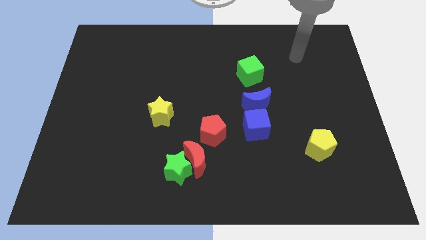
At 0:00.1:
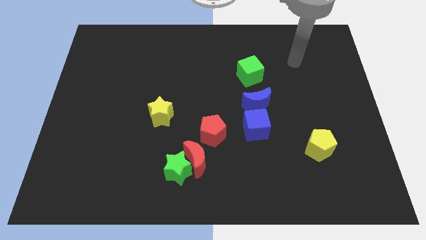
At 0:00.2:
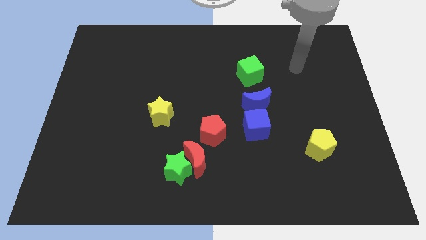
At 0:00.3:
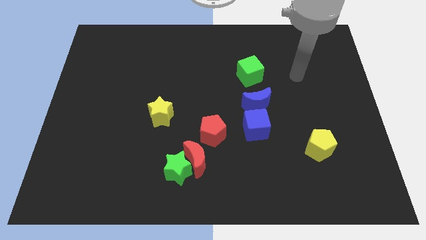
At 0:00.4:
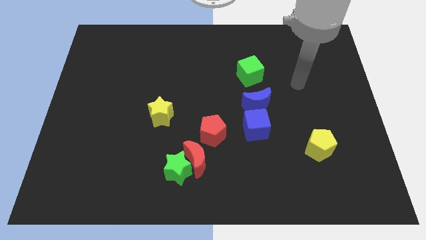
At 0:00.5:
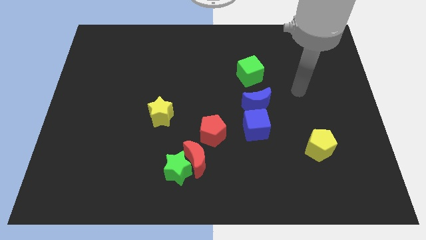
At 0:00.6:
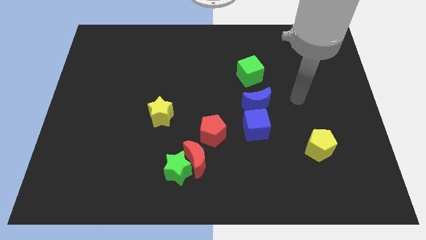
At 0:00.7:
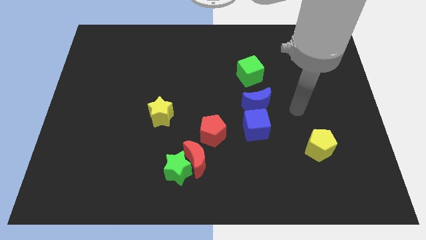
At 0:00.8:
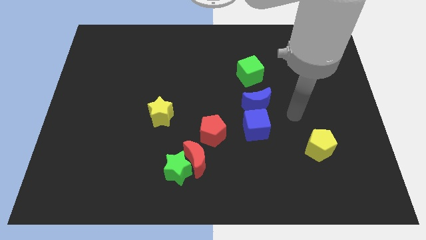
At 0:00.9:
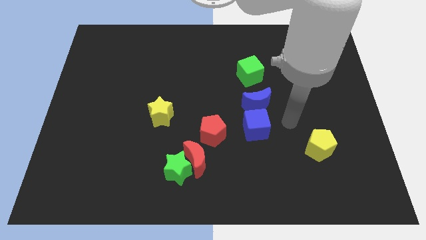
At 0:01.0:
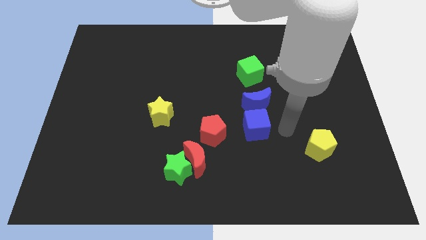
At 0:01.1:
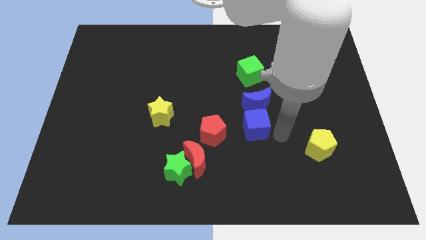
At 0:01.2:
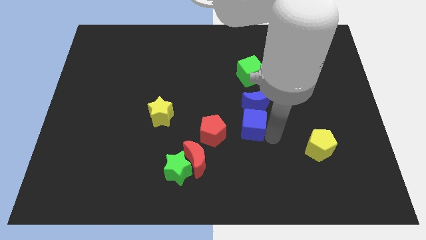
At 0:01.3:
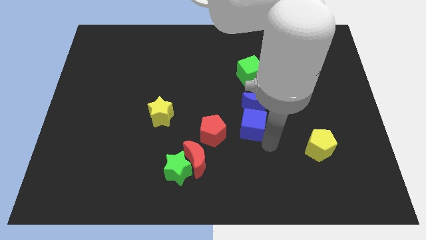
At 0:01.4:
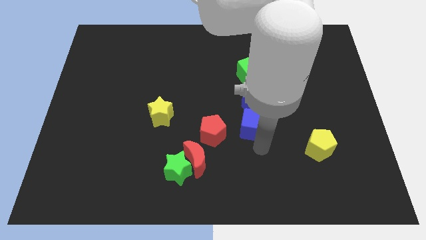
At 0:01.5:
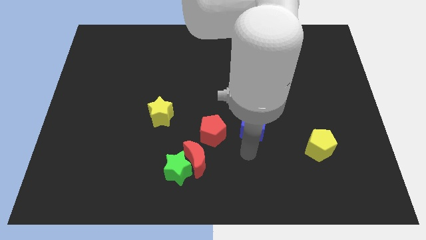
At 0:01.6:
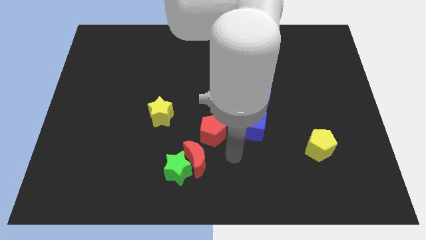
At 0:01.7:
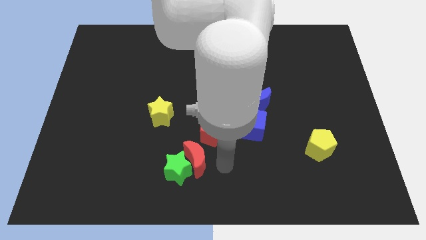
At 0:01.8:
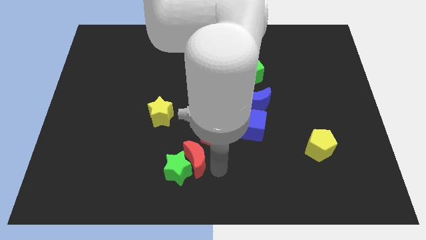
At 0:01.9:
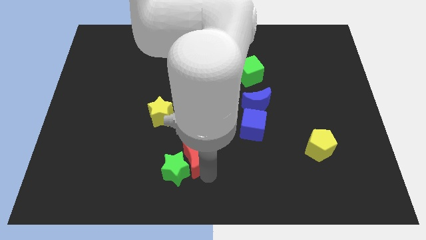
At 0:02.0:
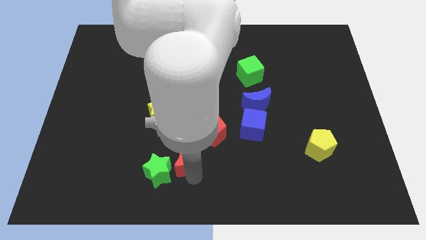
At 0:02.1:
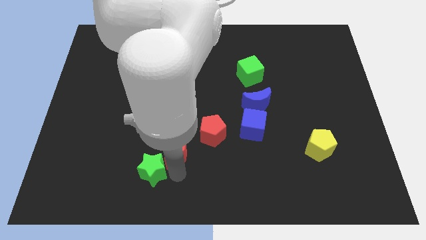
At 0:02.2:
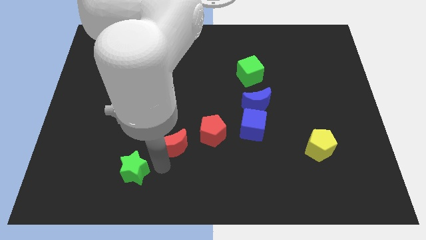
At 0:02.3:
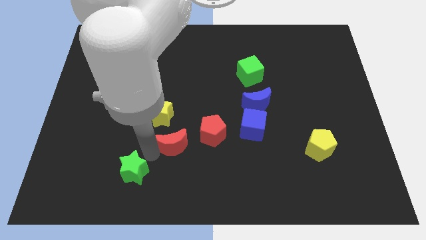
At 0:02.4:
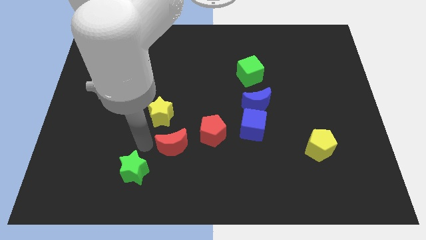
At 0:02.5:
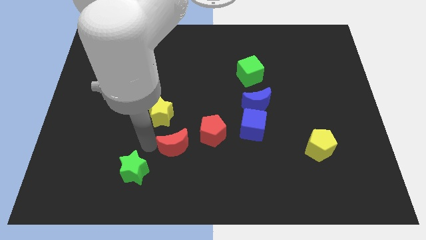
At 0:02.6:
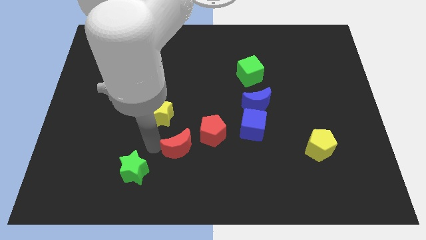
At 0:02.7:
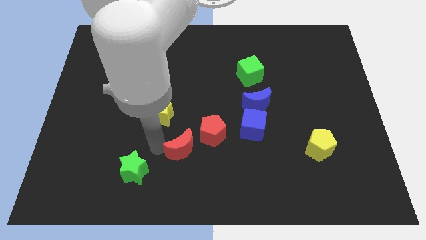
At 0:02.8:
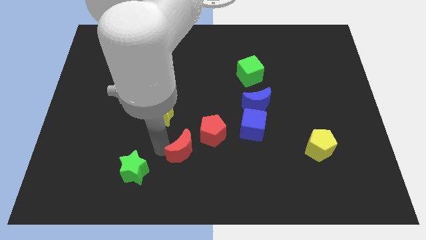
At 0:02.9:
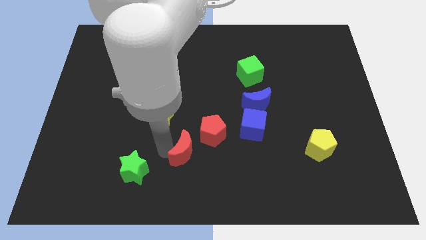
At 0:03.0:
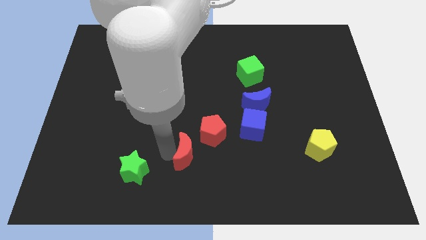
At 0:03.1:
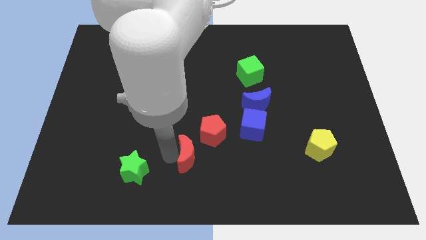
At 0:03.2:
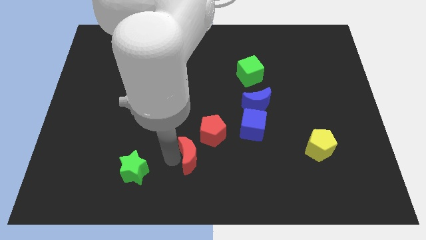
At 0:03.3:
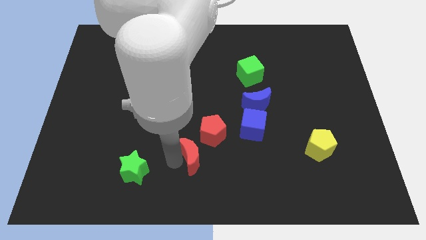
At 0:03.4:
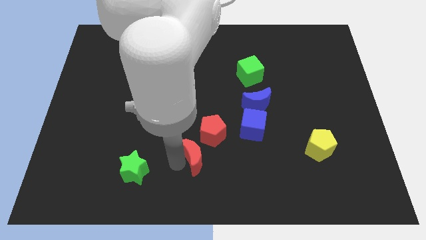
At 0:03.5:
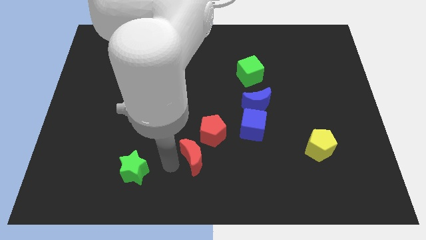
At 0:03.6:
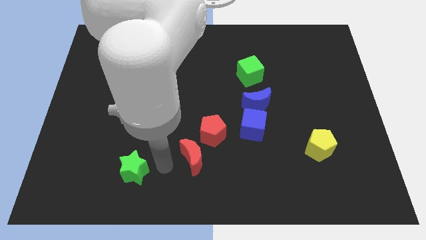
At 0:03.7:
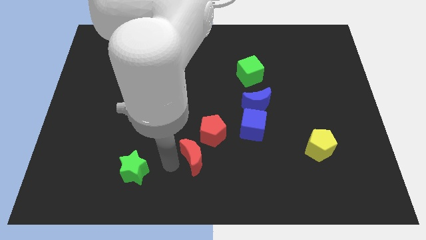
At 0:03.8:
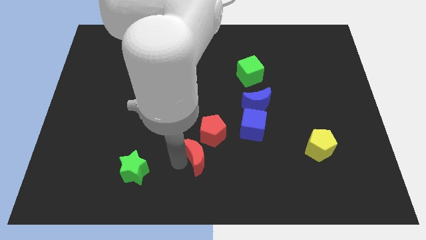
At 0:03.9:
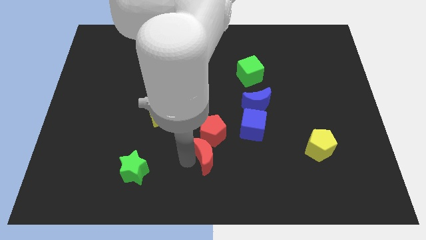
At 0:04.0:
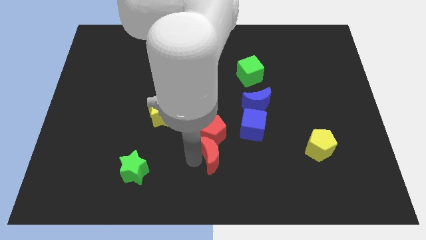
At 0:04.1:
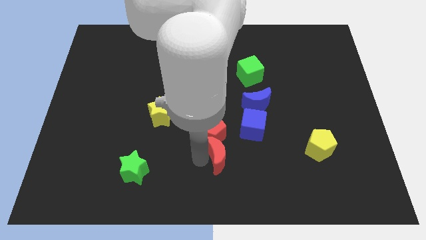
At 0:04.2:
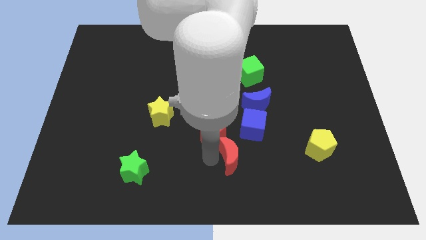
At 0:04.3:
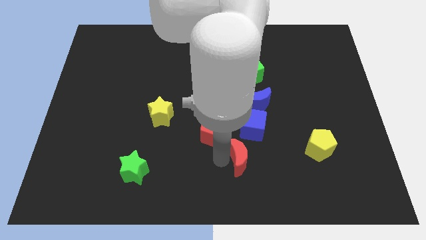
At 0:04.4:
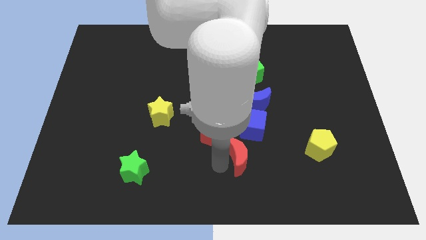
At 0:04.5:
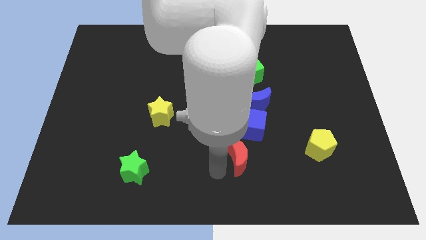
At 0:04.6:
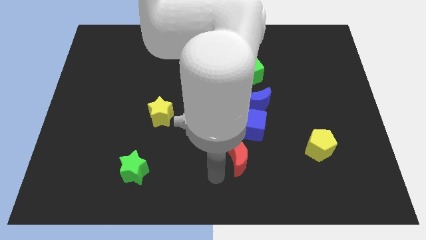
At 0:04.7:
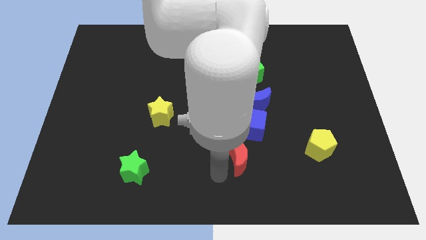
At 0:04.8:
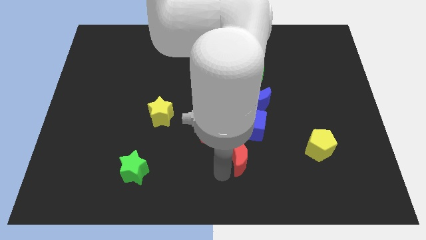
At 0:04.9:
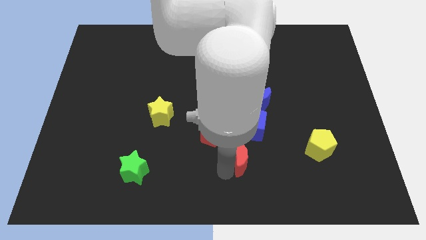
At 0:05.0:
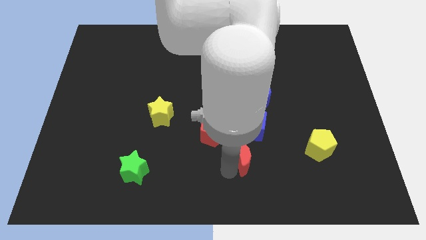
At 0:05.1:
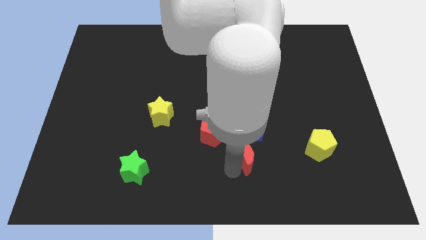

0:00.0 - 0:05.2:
put the red moon to the bottom of the blue moon

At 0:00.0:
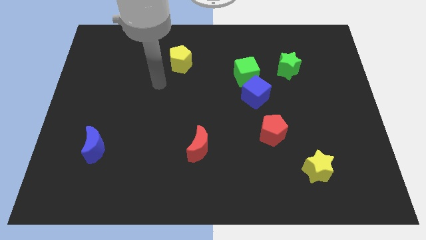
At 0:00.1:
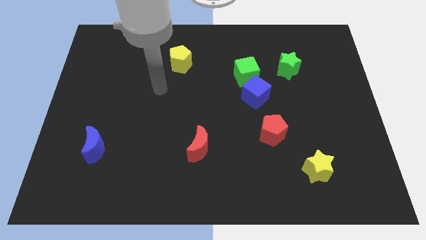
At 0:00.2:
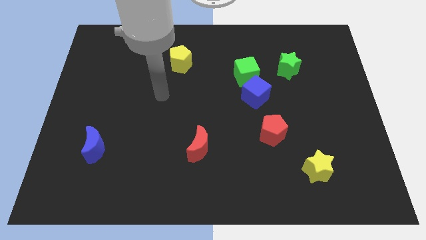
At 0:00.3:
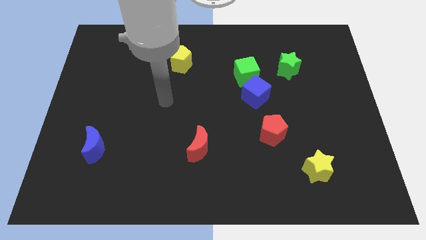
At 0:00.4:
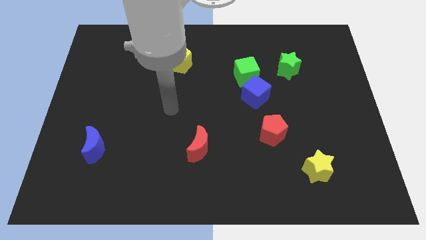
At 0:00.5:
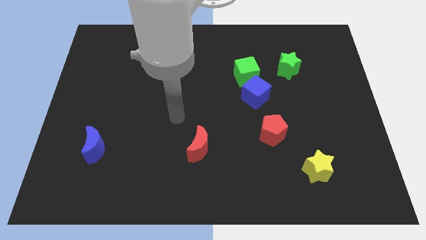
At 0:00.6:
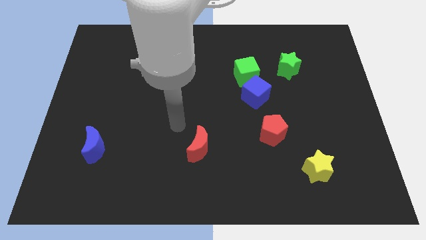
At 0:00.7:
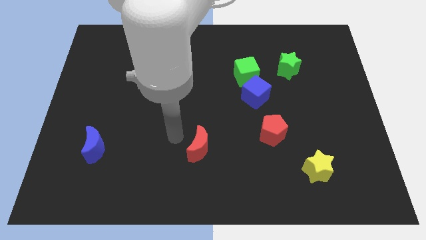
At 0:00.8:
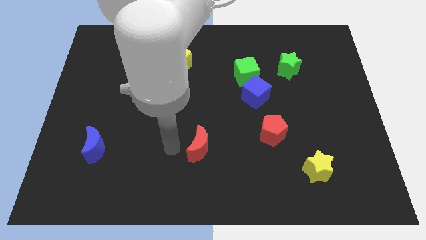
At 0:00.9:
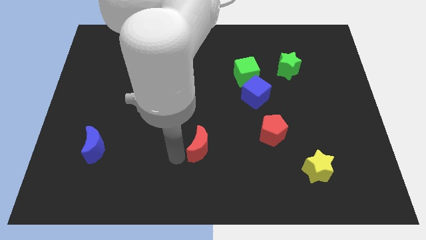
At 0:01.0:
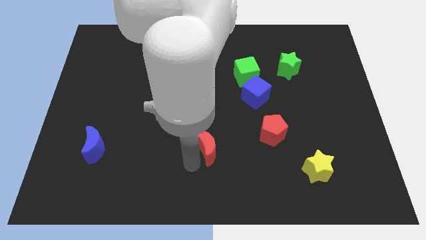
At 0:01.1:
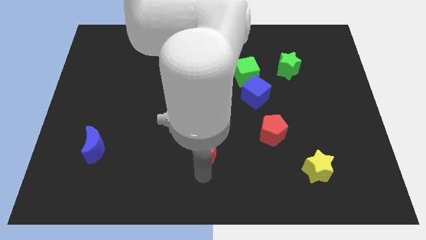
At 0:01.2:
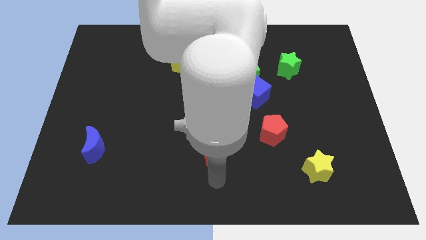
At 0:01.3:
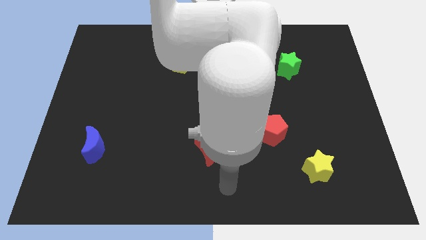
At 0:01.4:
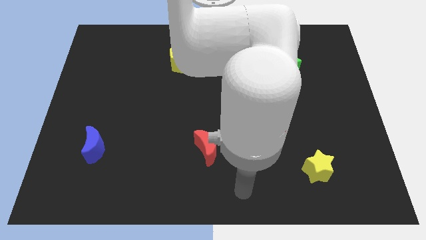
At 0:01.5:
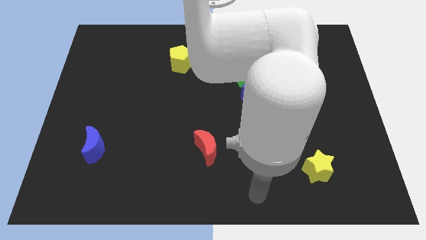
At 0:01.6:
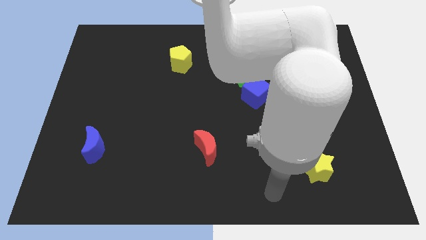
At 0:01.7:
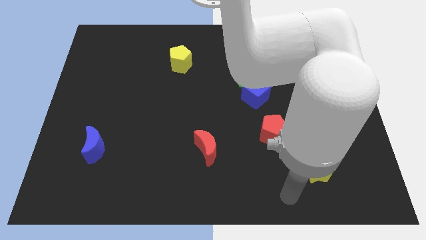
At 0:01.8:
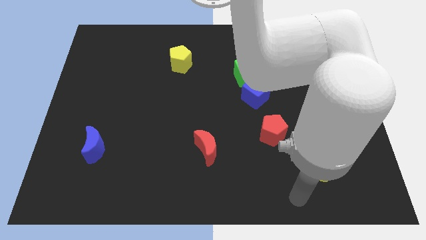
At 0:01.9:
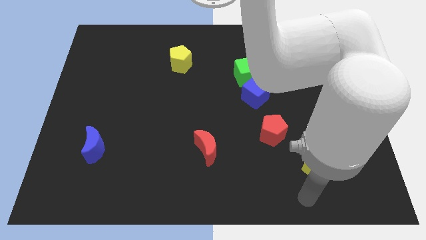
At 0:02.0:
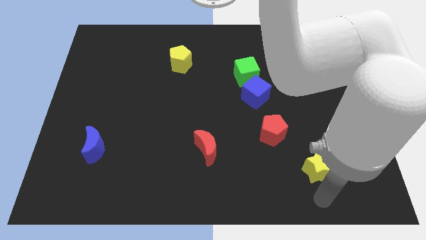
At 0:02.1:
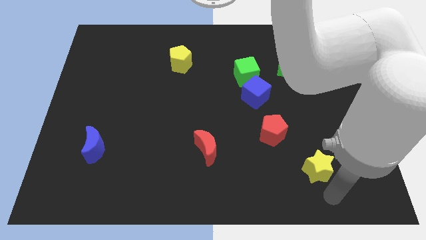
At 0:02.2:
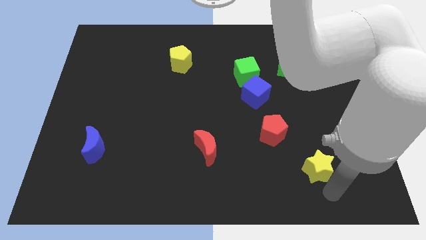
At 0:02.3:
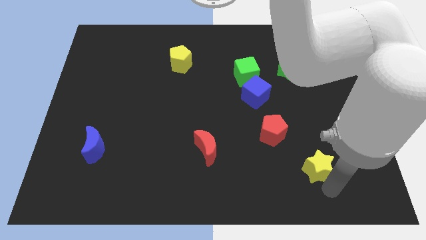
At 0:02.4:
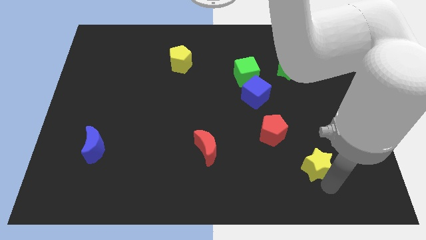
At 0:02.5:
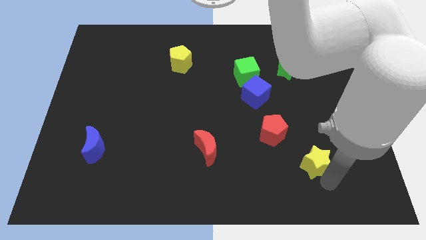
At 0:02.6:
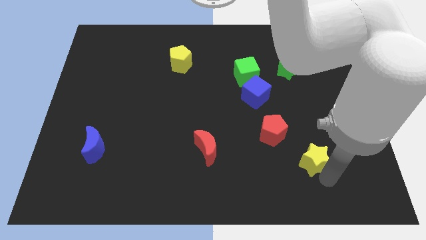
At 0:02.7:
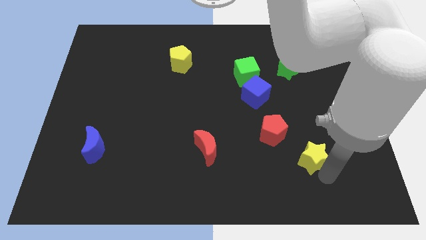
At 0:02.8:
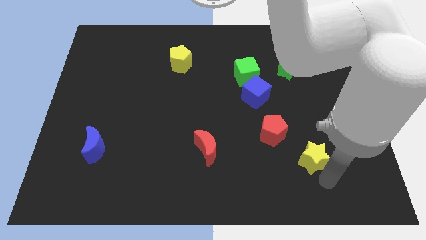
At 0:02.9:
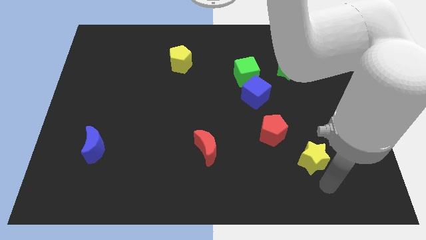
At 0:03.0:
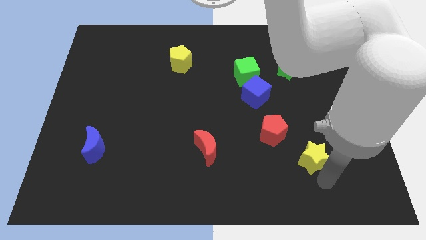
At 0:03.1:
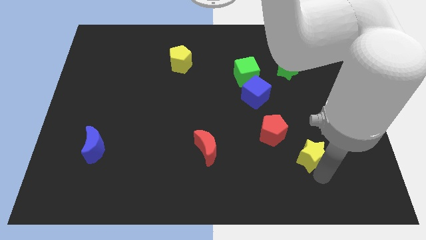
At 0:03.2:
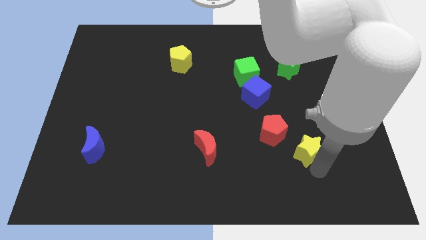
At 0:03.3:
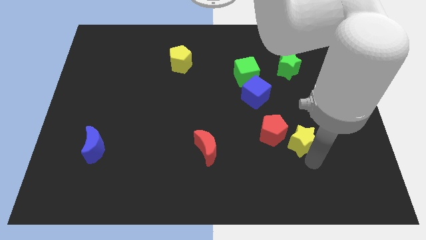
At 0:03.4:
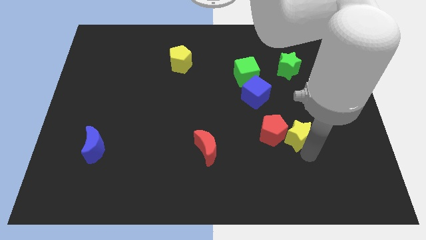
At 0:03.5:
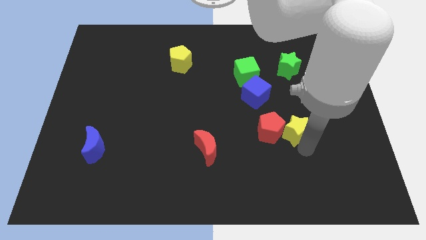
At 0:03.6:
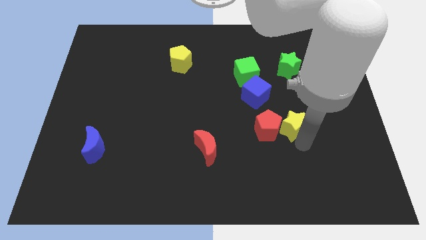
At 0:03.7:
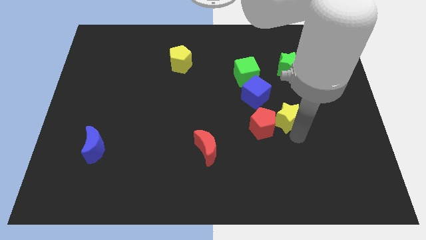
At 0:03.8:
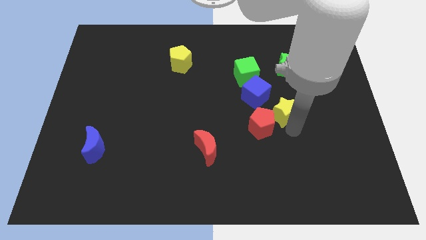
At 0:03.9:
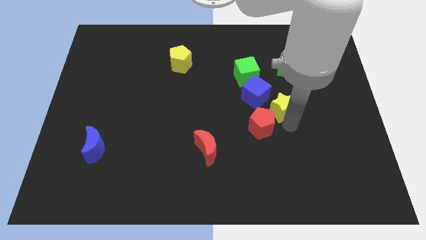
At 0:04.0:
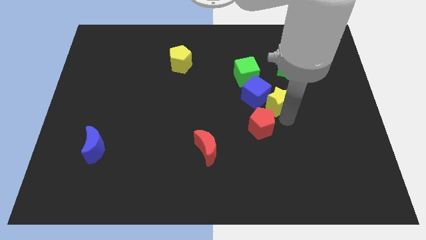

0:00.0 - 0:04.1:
put the yellow star diagonally down and to the right of the green cube
